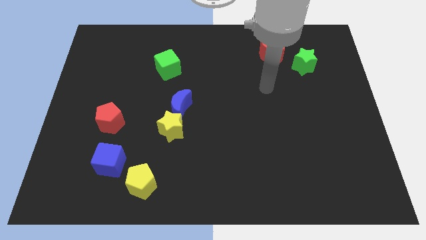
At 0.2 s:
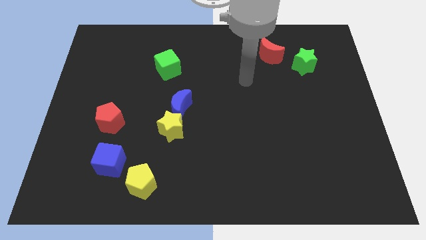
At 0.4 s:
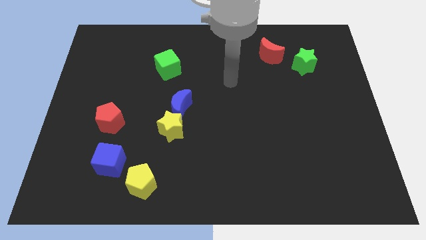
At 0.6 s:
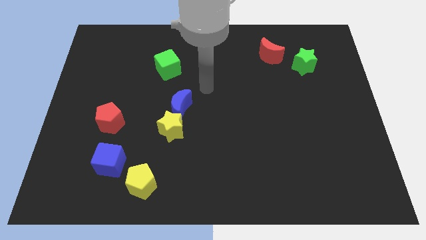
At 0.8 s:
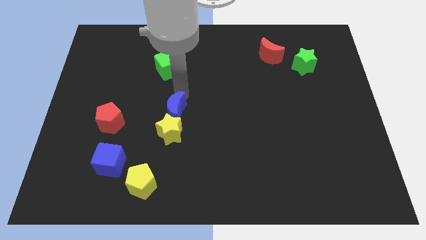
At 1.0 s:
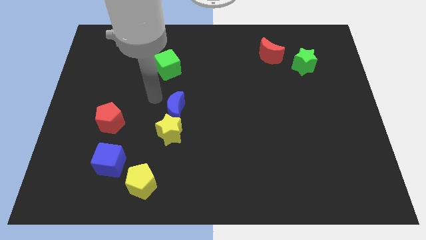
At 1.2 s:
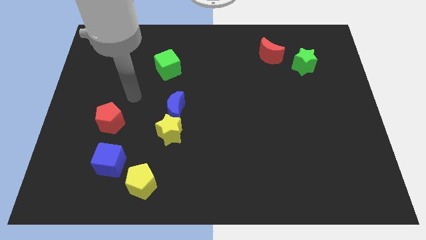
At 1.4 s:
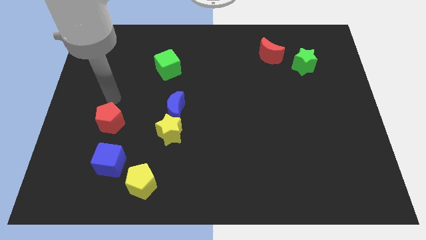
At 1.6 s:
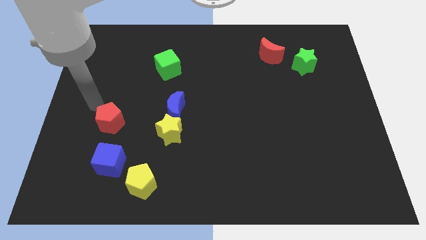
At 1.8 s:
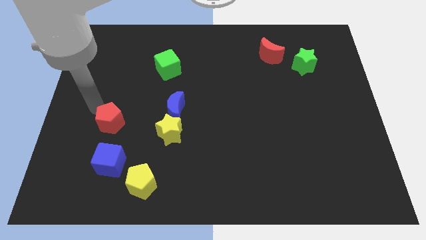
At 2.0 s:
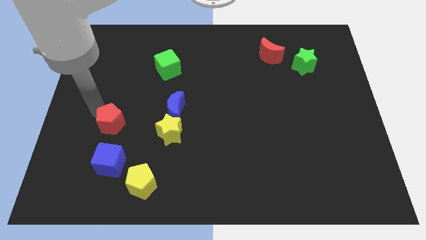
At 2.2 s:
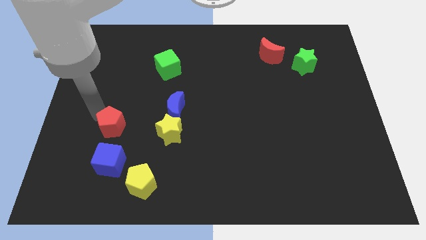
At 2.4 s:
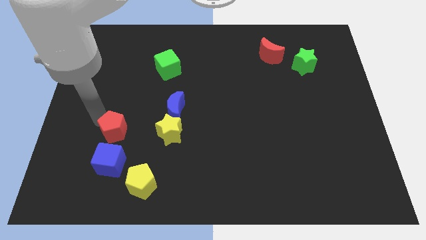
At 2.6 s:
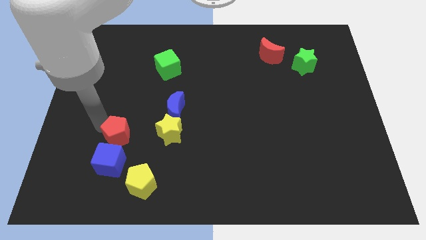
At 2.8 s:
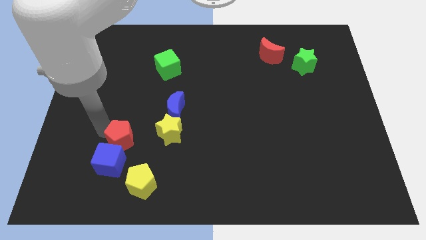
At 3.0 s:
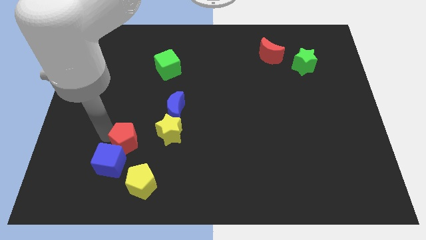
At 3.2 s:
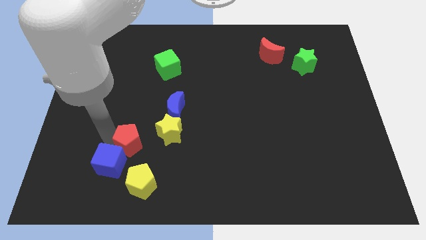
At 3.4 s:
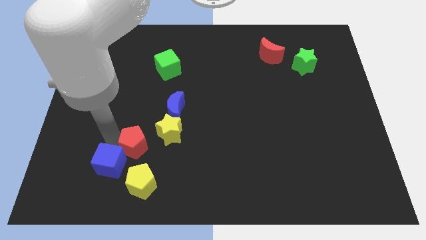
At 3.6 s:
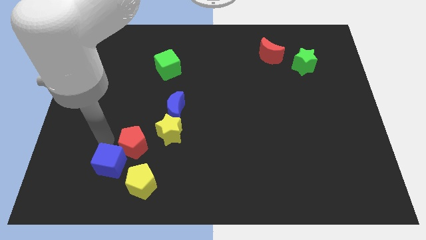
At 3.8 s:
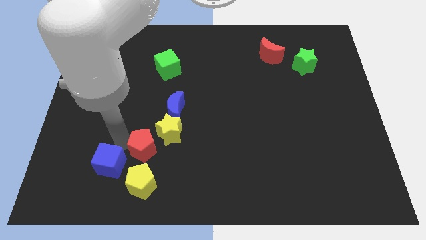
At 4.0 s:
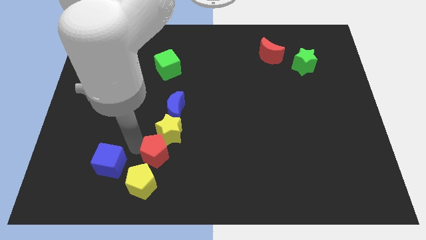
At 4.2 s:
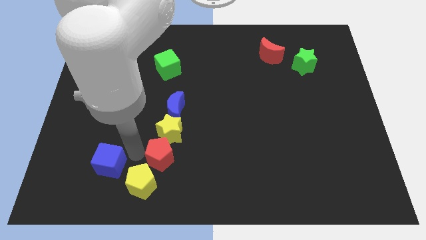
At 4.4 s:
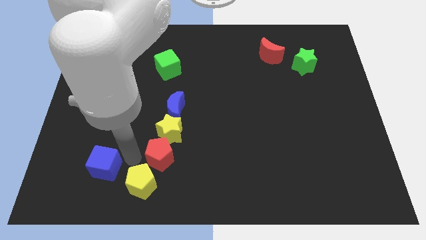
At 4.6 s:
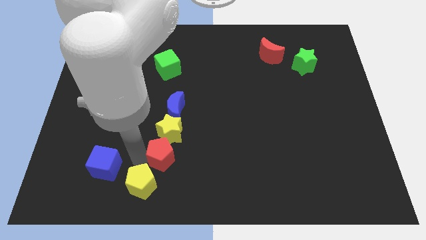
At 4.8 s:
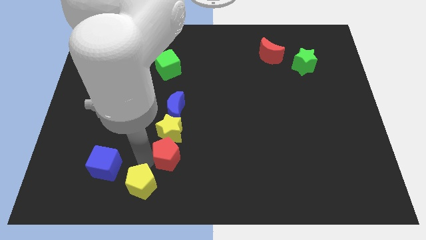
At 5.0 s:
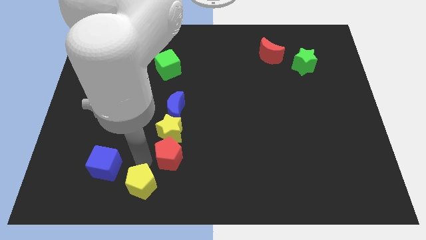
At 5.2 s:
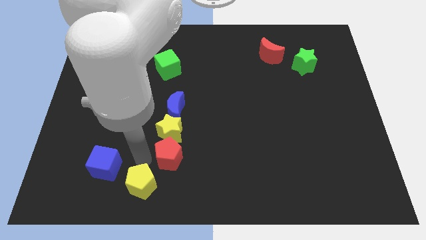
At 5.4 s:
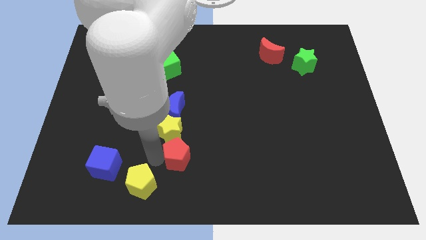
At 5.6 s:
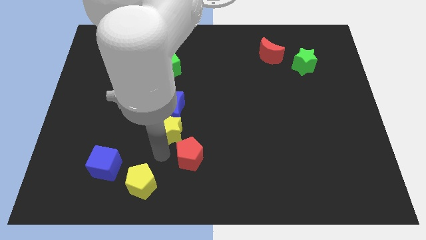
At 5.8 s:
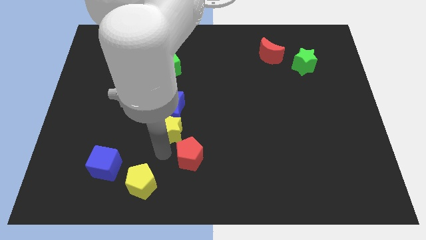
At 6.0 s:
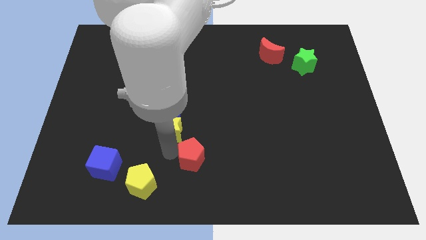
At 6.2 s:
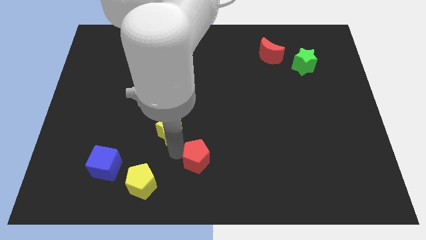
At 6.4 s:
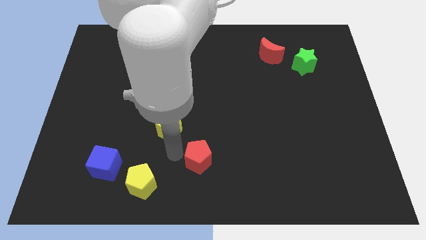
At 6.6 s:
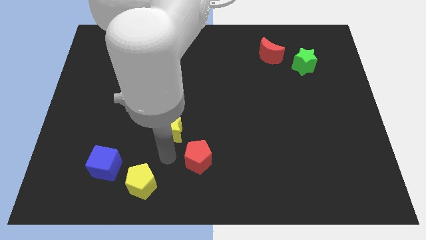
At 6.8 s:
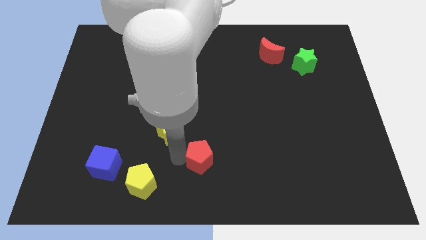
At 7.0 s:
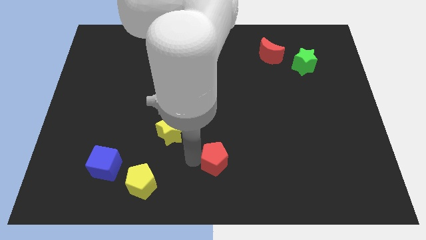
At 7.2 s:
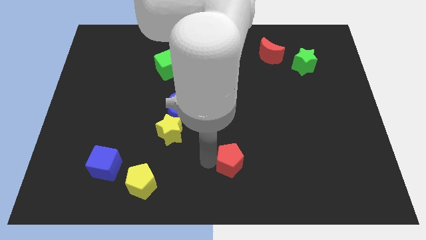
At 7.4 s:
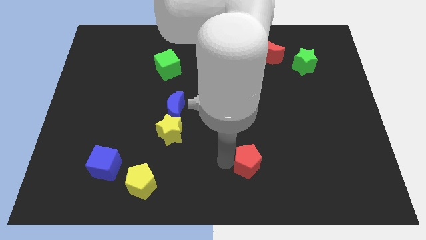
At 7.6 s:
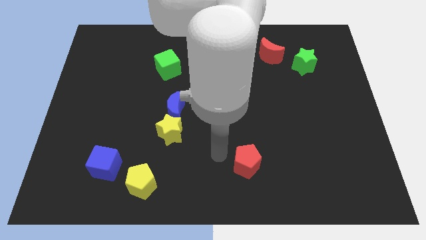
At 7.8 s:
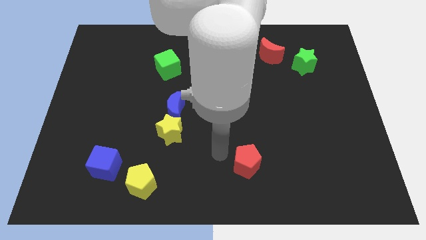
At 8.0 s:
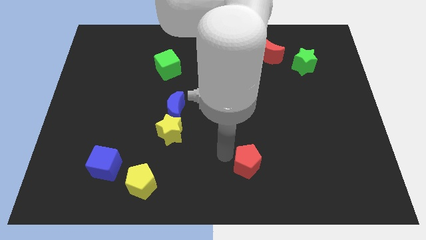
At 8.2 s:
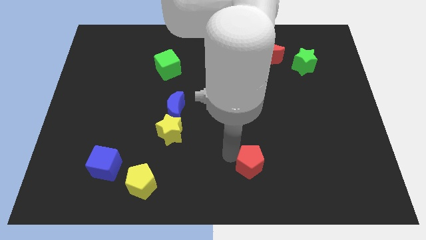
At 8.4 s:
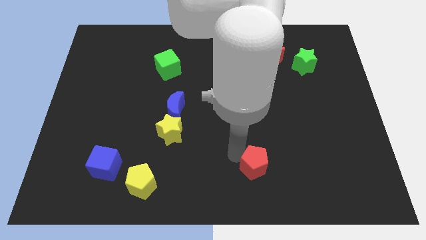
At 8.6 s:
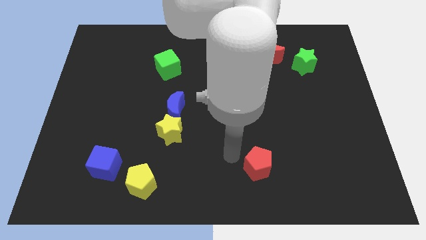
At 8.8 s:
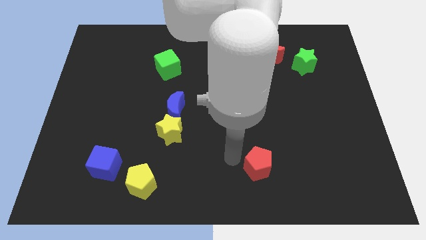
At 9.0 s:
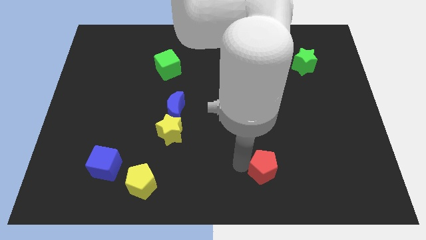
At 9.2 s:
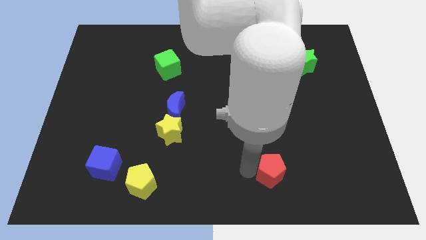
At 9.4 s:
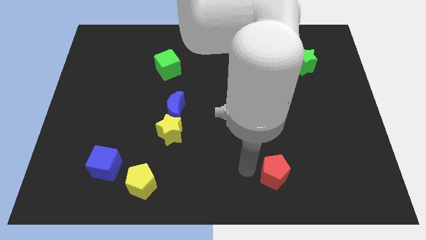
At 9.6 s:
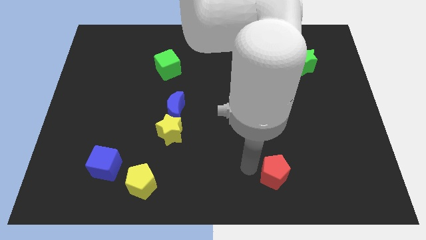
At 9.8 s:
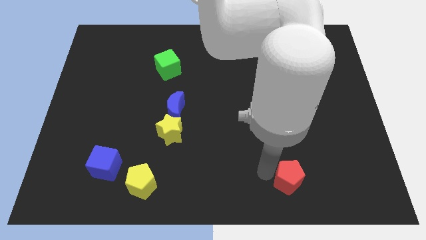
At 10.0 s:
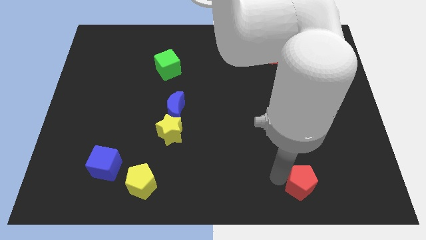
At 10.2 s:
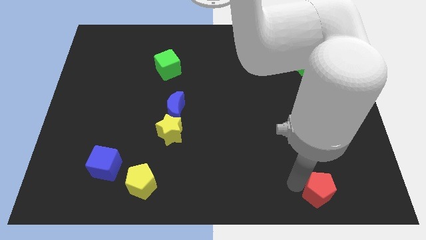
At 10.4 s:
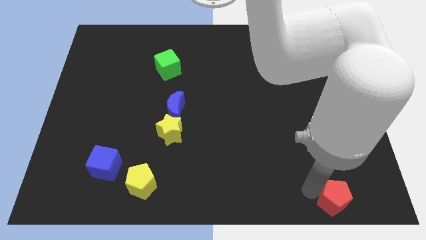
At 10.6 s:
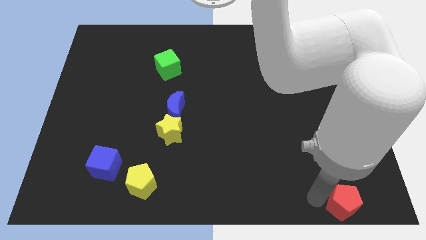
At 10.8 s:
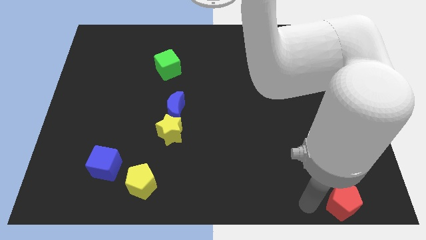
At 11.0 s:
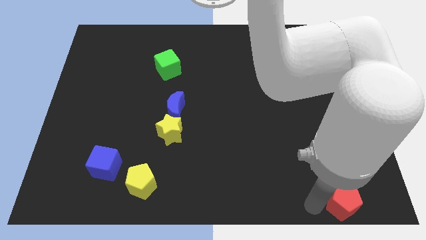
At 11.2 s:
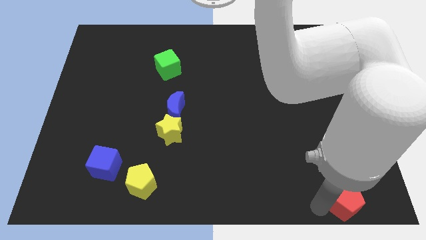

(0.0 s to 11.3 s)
push the red pentagon to the bottom right of the board

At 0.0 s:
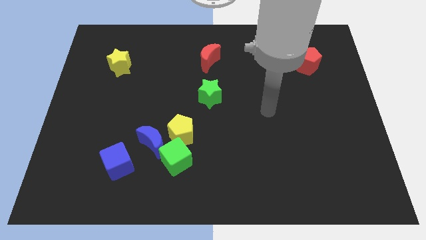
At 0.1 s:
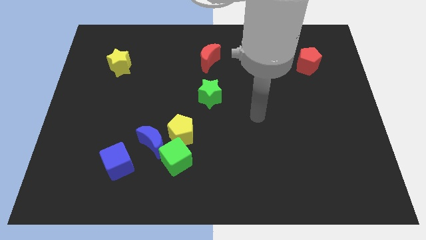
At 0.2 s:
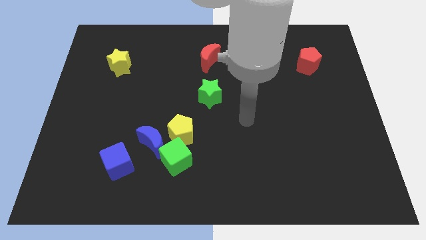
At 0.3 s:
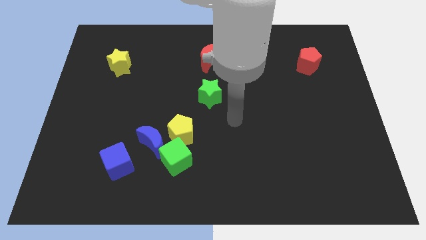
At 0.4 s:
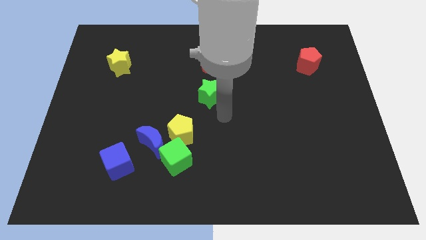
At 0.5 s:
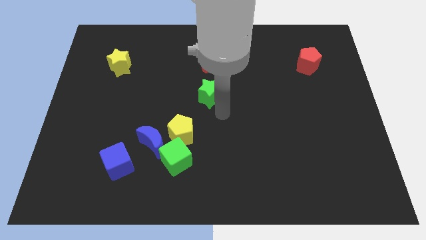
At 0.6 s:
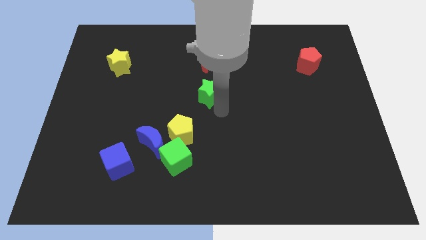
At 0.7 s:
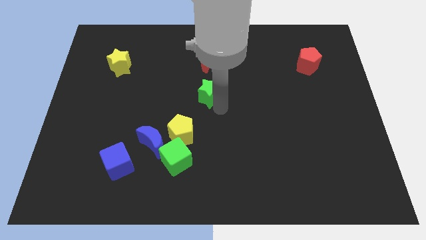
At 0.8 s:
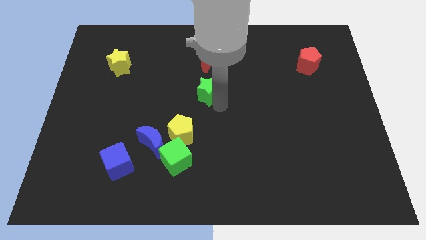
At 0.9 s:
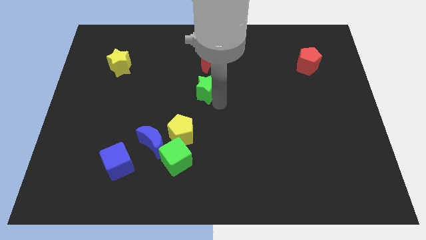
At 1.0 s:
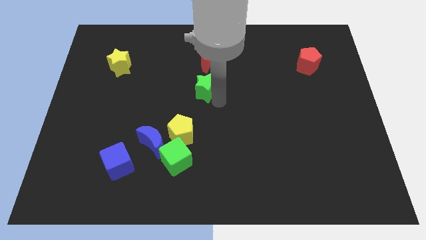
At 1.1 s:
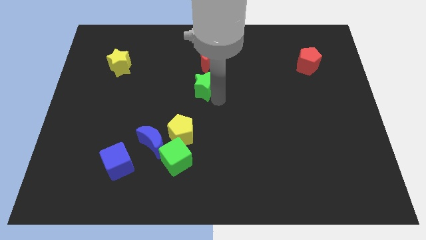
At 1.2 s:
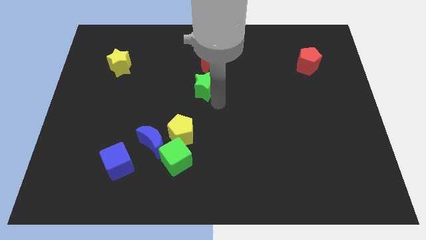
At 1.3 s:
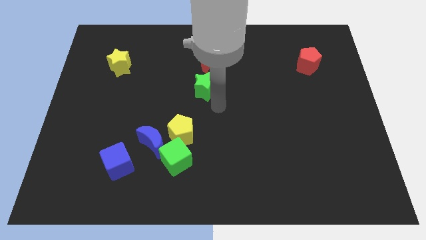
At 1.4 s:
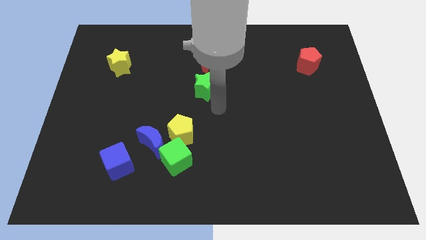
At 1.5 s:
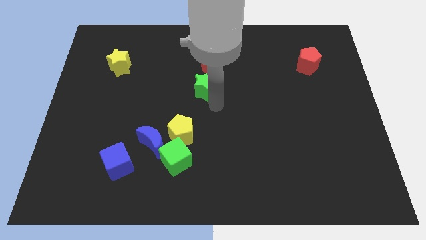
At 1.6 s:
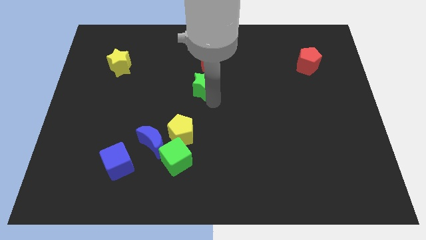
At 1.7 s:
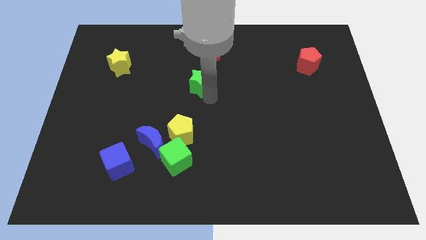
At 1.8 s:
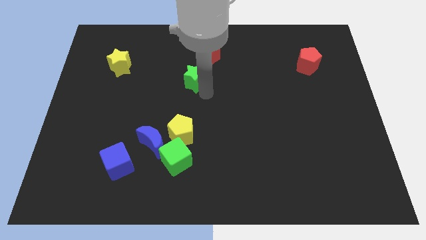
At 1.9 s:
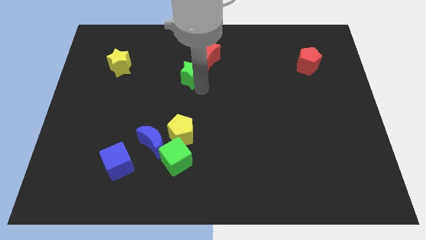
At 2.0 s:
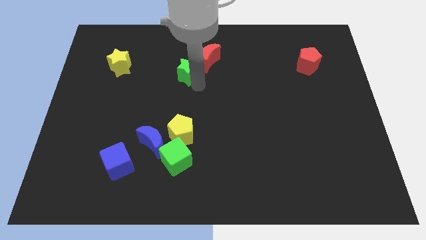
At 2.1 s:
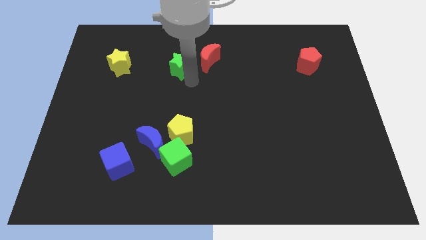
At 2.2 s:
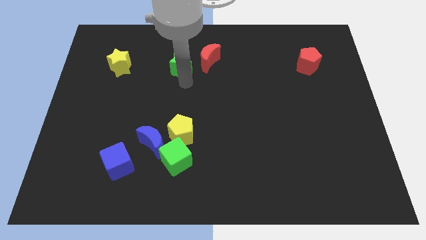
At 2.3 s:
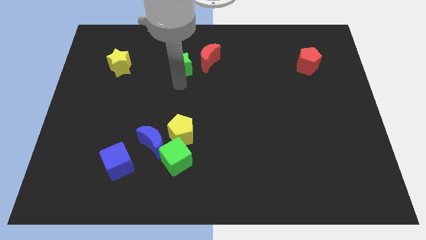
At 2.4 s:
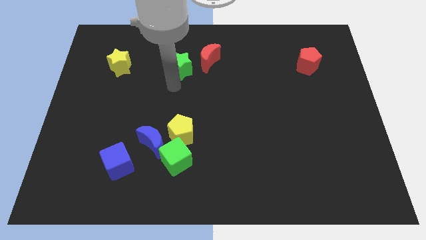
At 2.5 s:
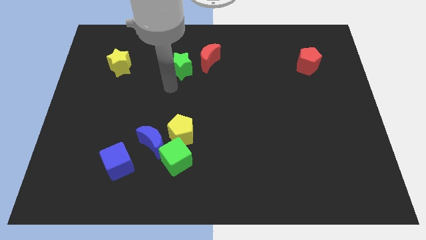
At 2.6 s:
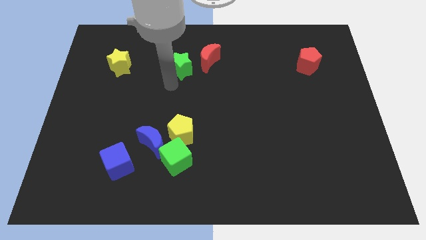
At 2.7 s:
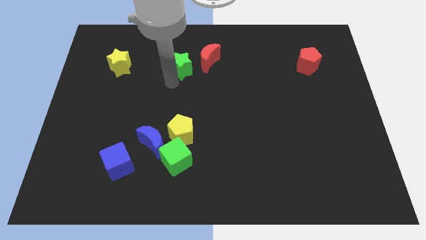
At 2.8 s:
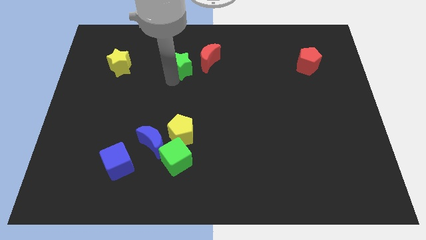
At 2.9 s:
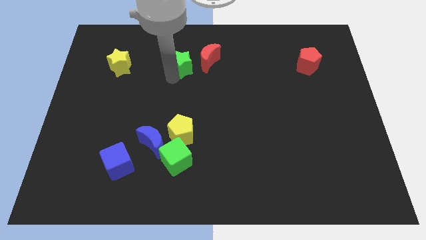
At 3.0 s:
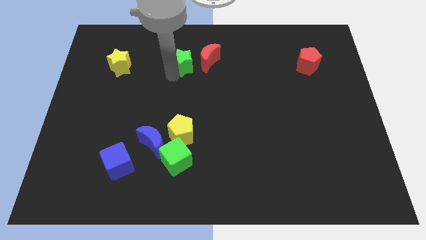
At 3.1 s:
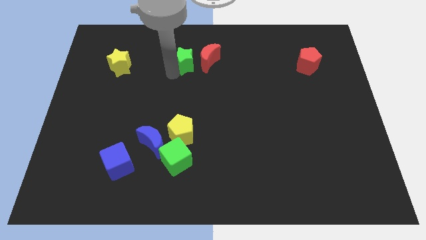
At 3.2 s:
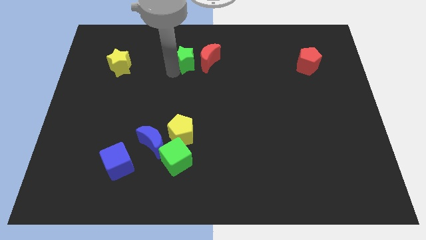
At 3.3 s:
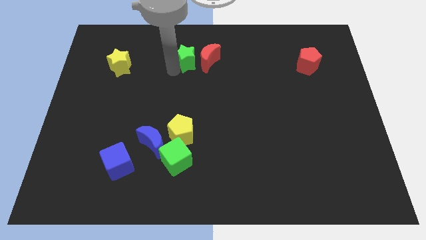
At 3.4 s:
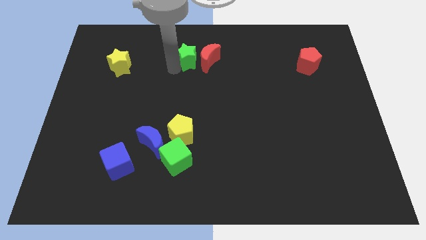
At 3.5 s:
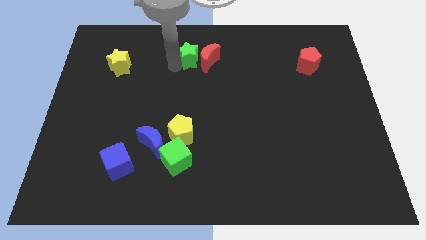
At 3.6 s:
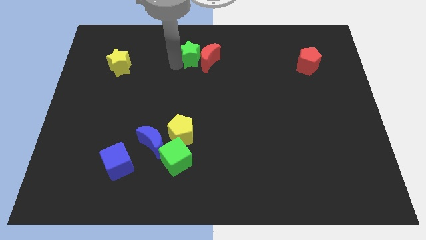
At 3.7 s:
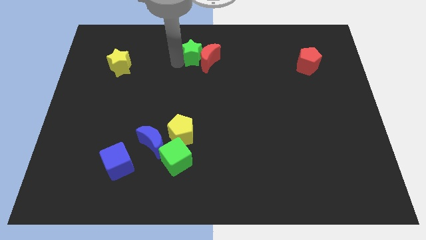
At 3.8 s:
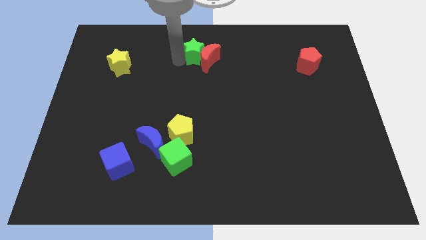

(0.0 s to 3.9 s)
put the green star to the top
